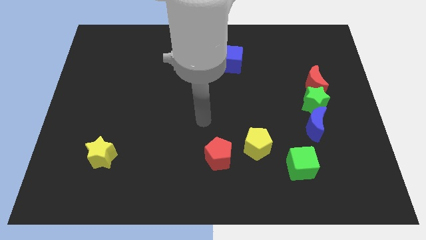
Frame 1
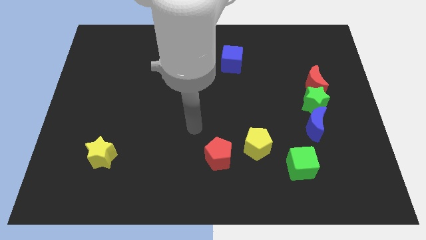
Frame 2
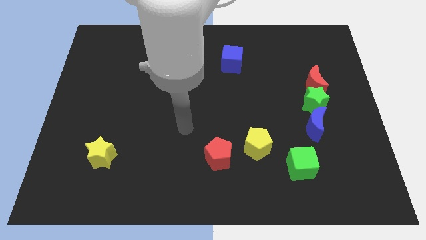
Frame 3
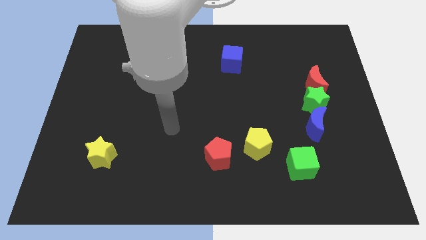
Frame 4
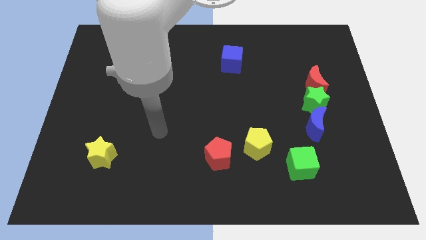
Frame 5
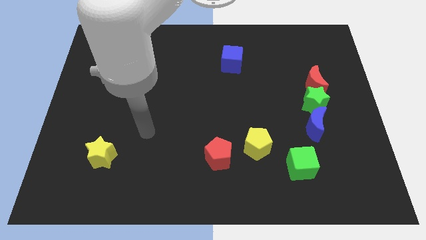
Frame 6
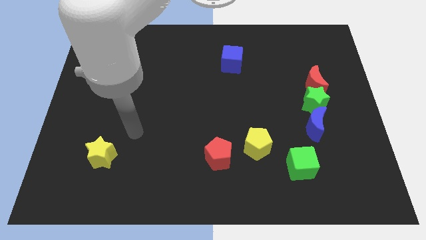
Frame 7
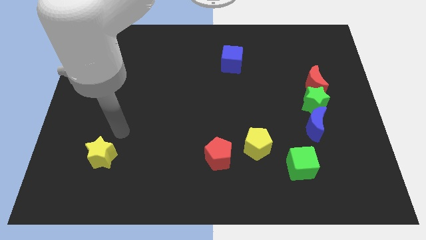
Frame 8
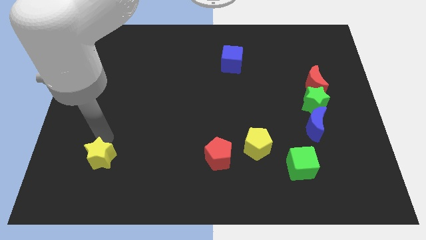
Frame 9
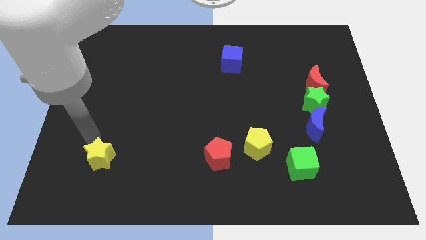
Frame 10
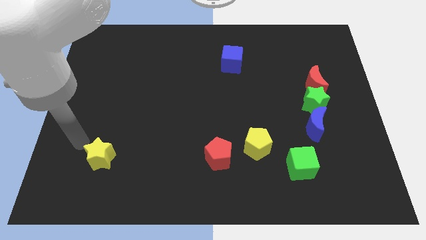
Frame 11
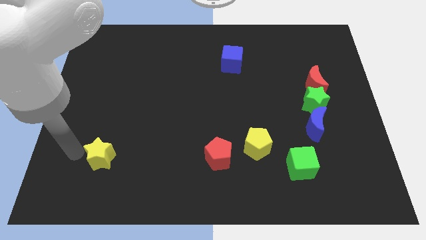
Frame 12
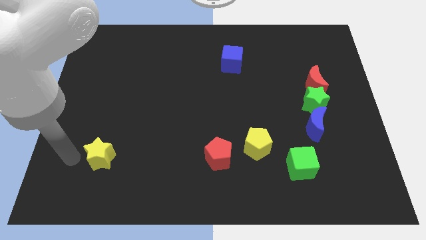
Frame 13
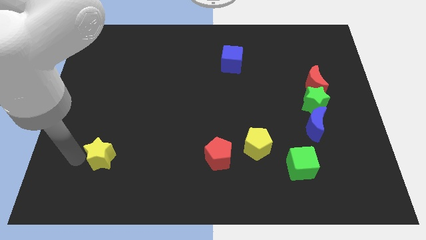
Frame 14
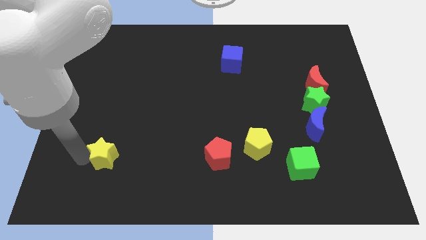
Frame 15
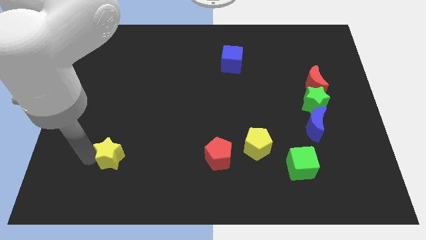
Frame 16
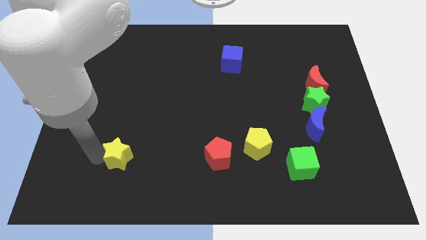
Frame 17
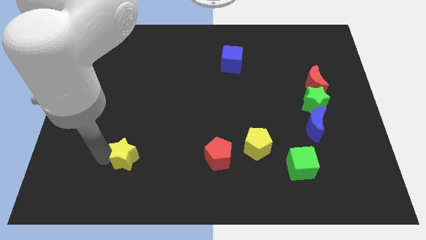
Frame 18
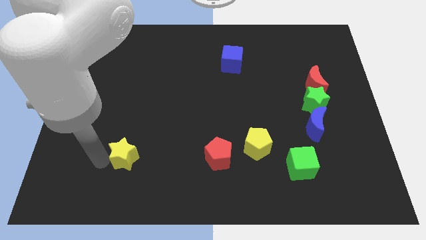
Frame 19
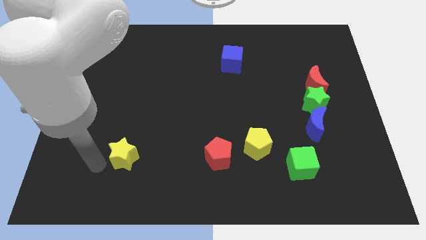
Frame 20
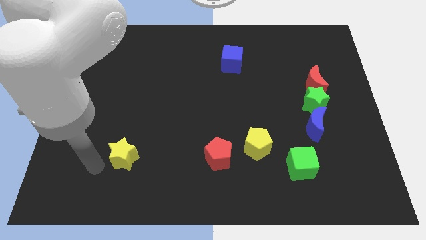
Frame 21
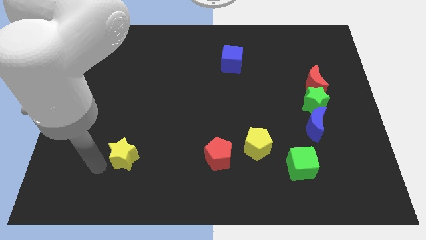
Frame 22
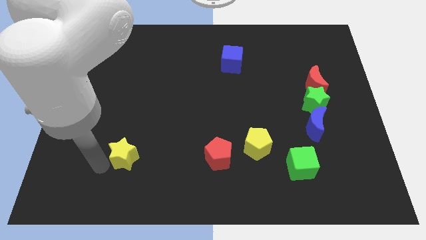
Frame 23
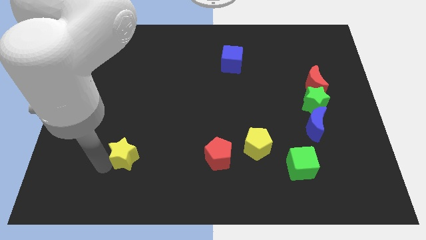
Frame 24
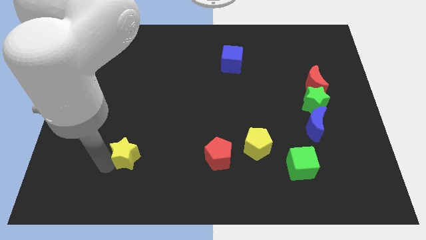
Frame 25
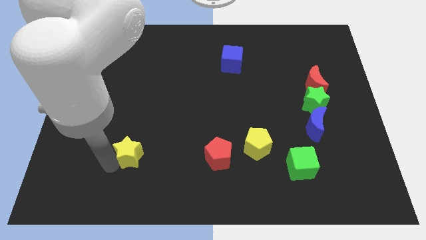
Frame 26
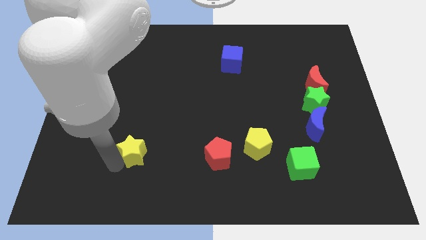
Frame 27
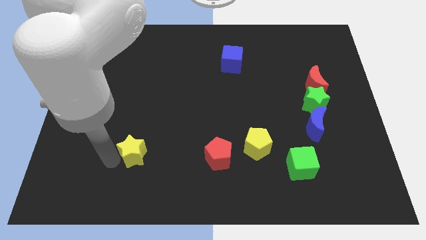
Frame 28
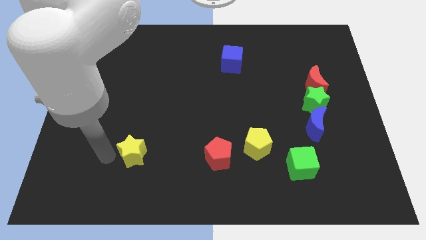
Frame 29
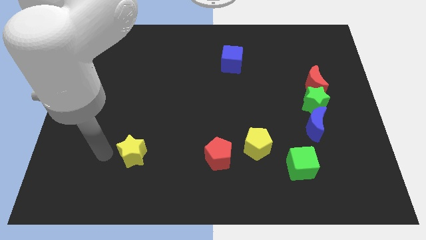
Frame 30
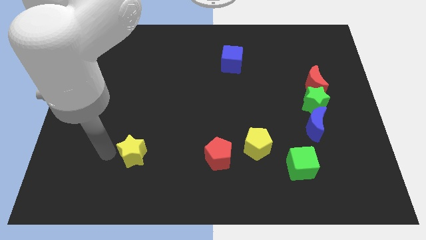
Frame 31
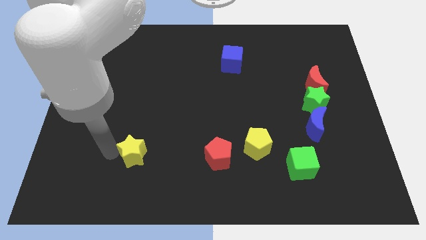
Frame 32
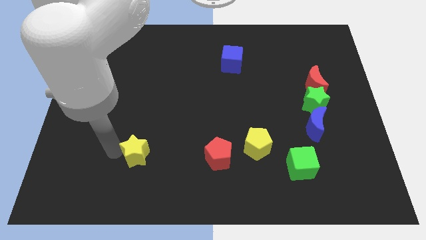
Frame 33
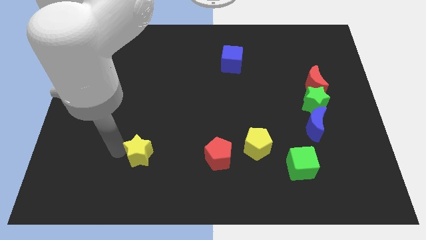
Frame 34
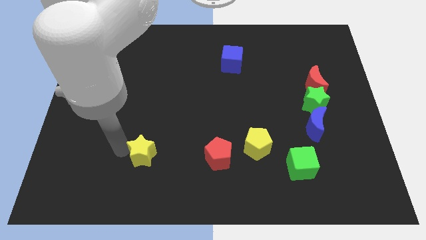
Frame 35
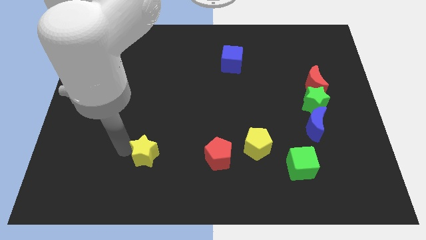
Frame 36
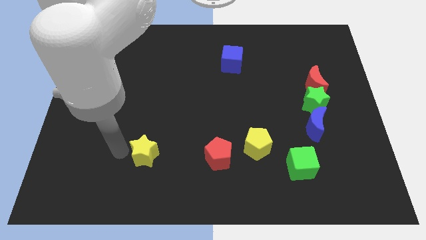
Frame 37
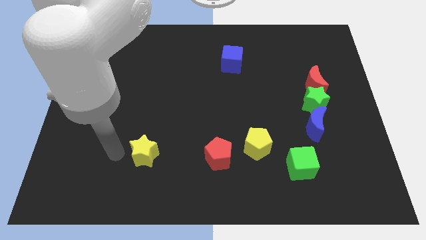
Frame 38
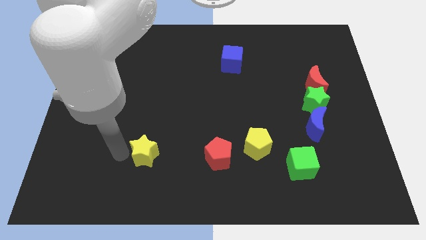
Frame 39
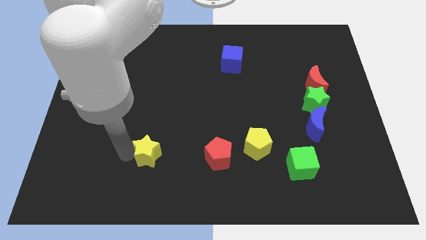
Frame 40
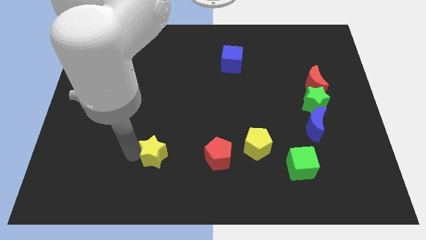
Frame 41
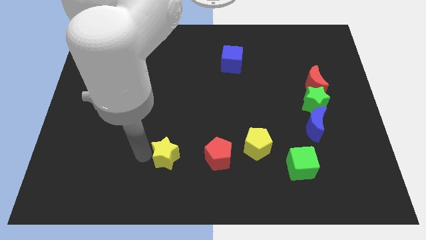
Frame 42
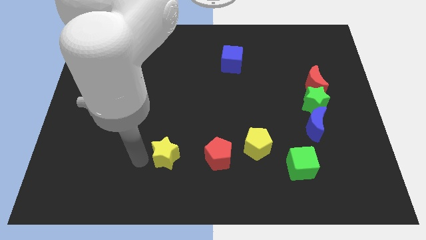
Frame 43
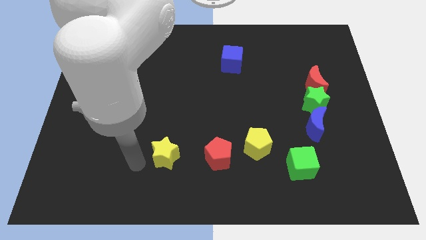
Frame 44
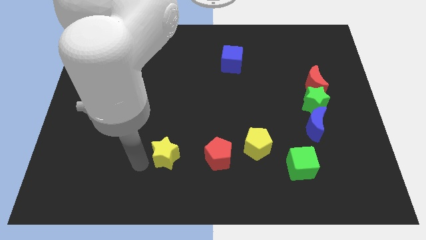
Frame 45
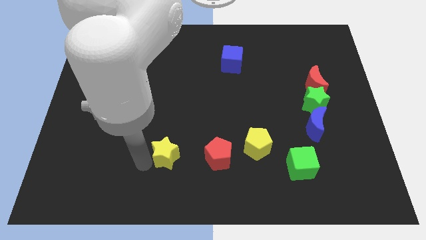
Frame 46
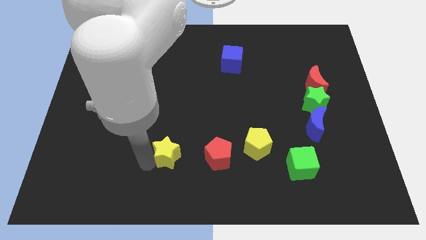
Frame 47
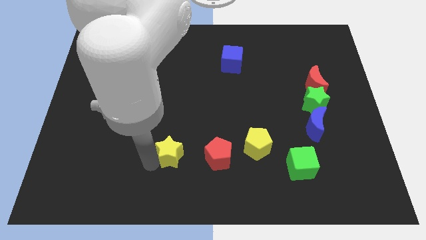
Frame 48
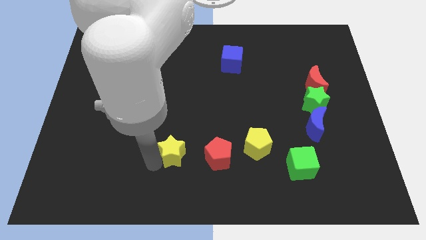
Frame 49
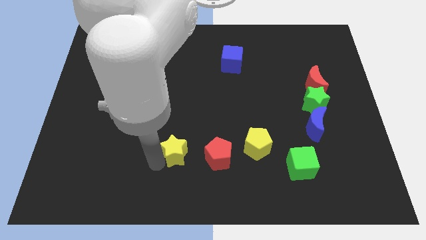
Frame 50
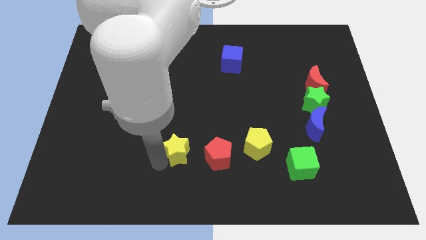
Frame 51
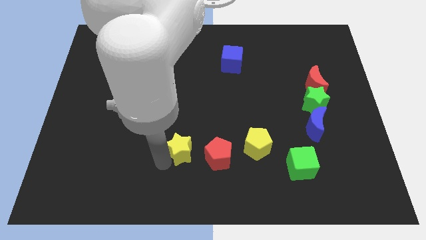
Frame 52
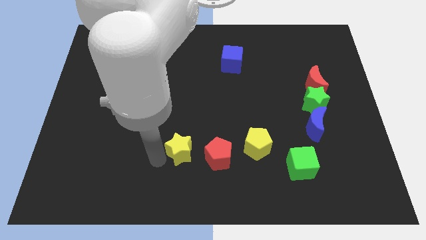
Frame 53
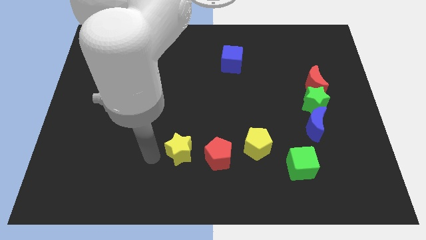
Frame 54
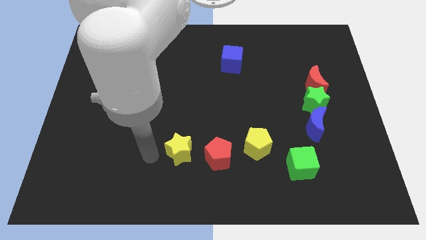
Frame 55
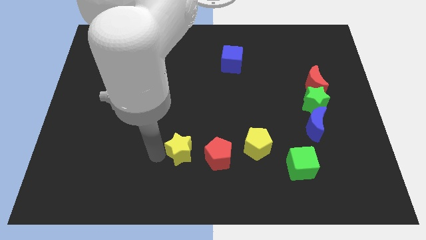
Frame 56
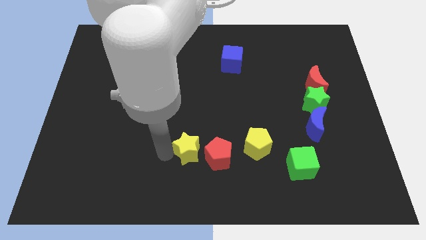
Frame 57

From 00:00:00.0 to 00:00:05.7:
move the yellow star just left of the yellow pentagon
